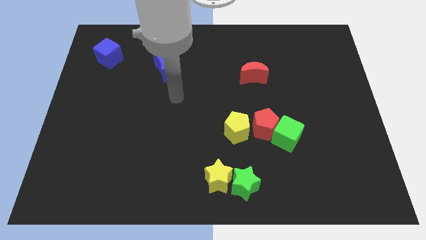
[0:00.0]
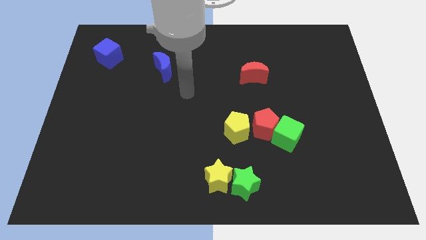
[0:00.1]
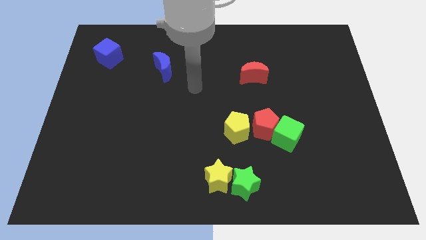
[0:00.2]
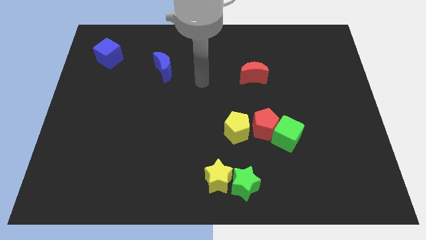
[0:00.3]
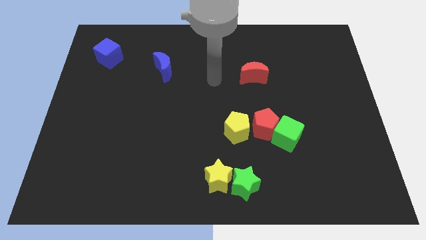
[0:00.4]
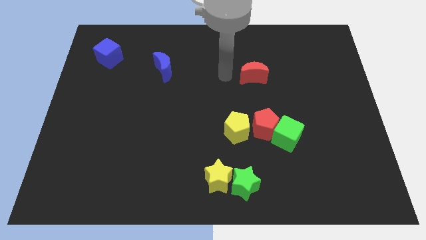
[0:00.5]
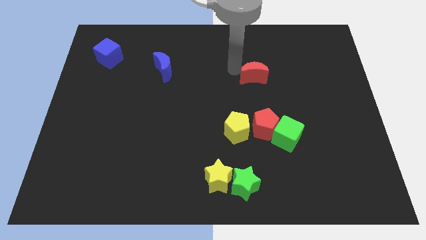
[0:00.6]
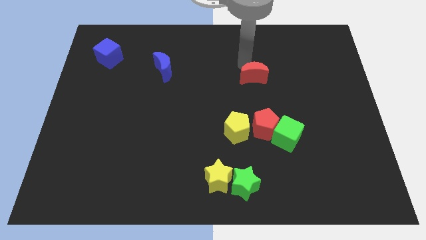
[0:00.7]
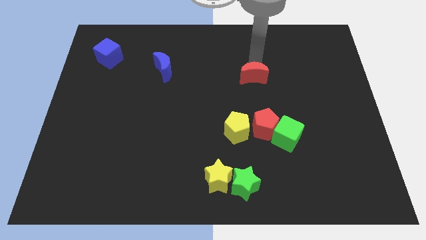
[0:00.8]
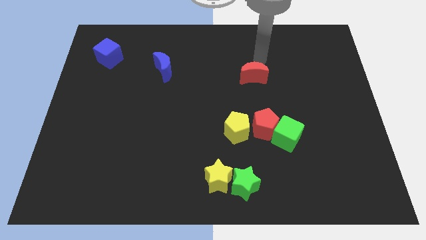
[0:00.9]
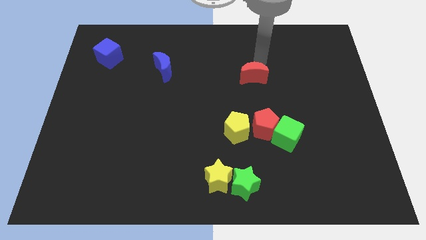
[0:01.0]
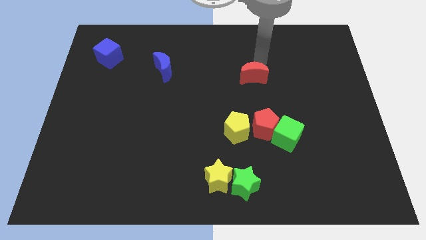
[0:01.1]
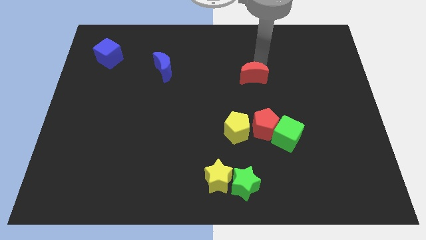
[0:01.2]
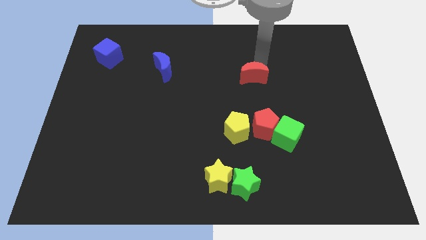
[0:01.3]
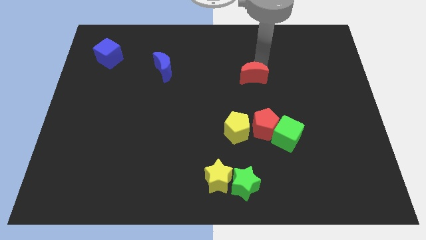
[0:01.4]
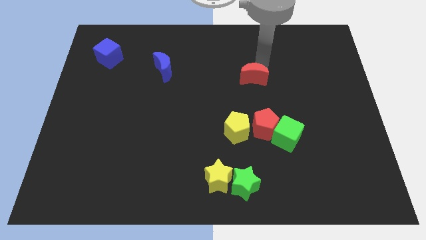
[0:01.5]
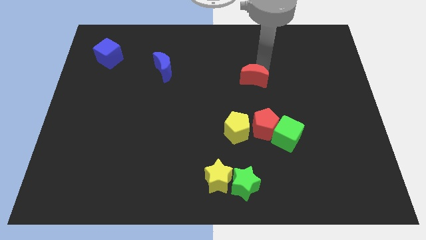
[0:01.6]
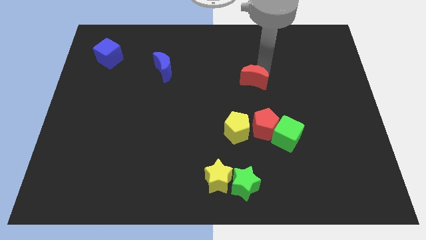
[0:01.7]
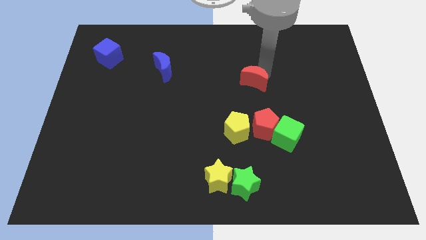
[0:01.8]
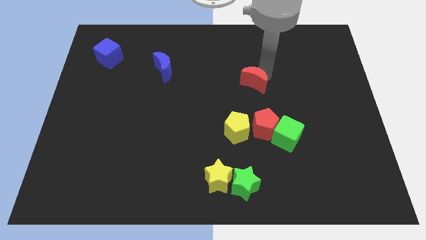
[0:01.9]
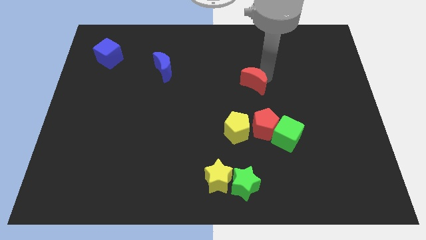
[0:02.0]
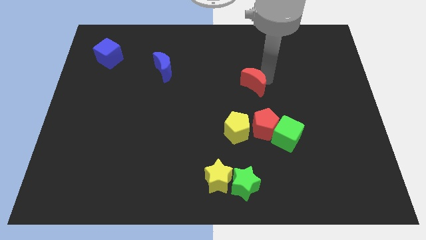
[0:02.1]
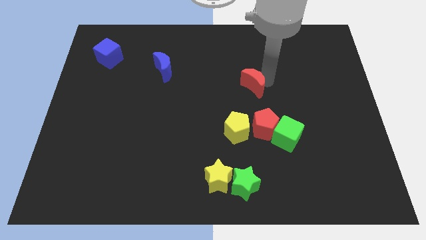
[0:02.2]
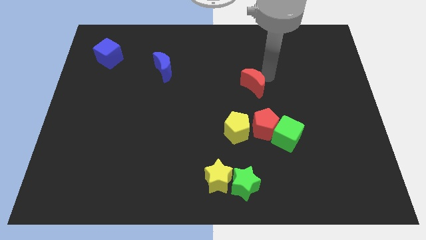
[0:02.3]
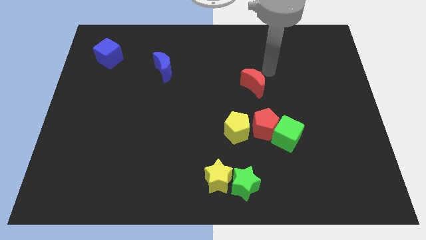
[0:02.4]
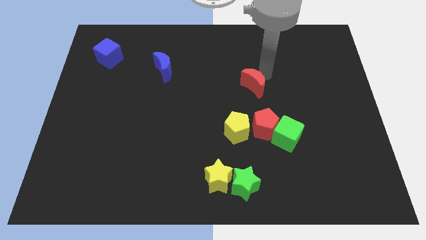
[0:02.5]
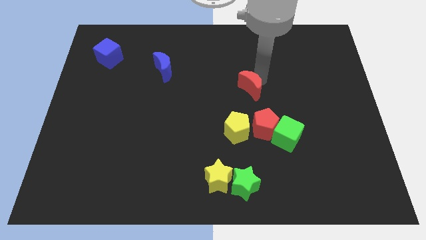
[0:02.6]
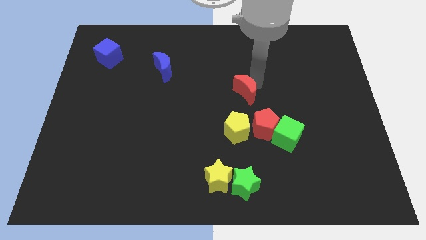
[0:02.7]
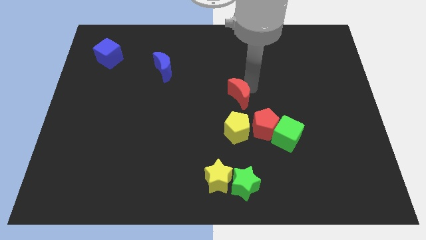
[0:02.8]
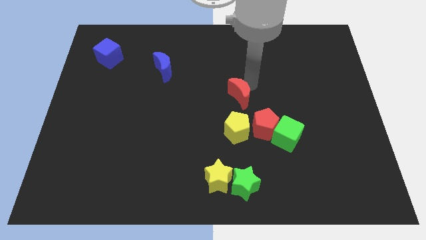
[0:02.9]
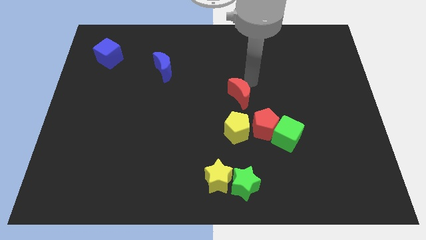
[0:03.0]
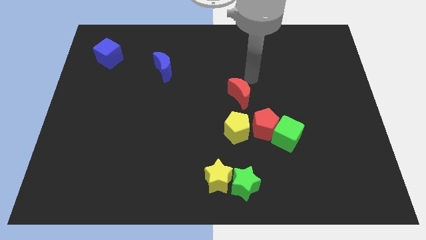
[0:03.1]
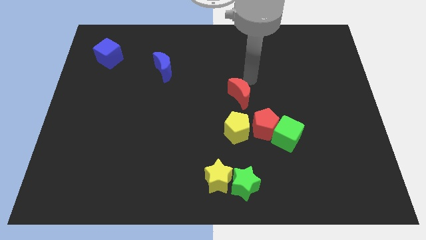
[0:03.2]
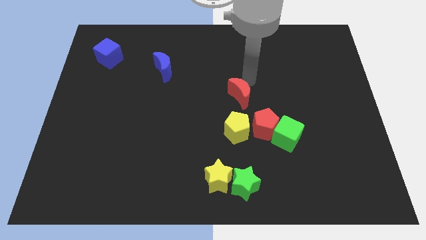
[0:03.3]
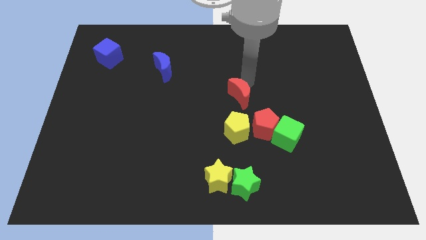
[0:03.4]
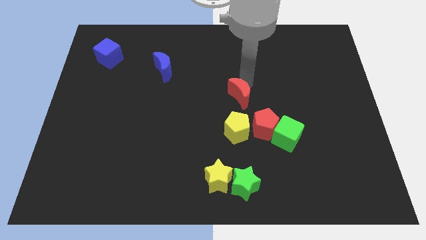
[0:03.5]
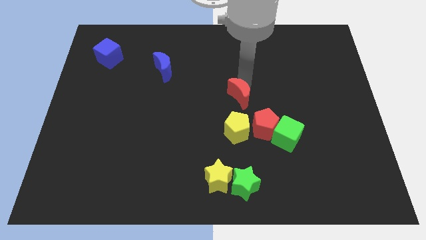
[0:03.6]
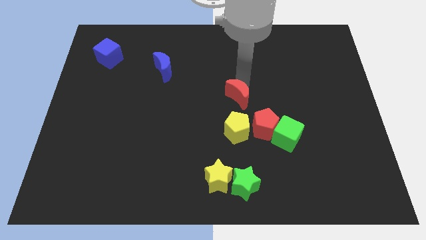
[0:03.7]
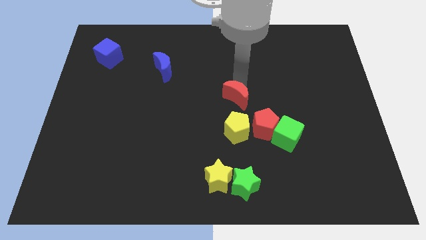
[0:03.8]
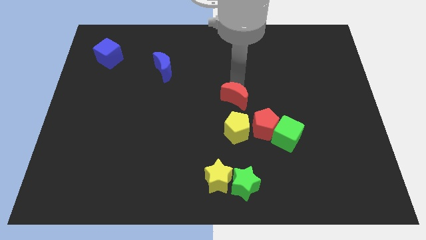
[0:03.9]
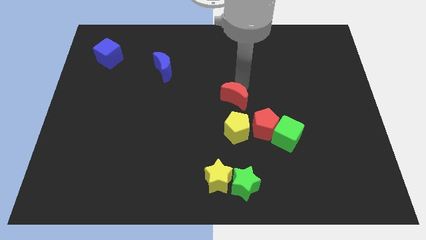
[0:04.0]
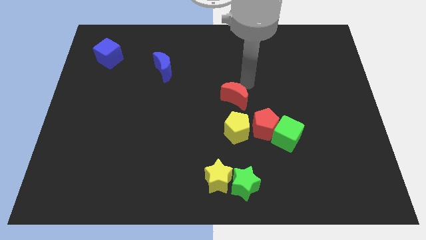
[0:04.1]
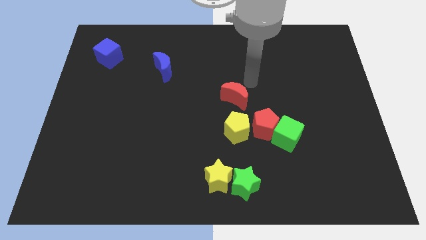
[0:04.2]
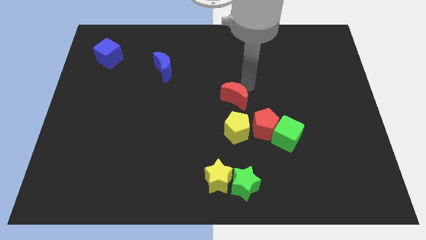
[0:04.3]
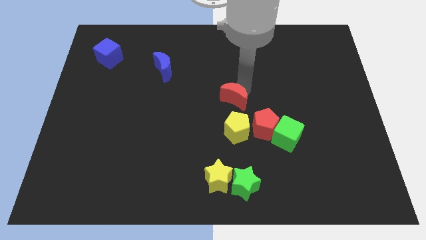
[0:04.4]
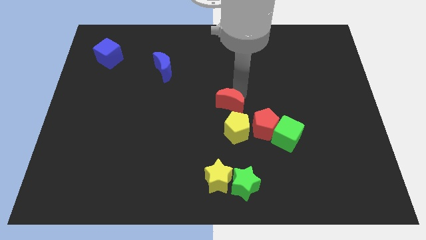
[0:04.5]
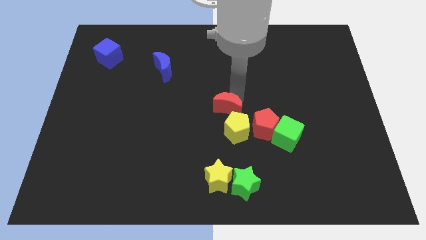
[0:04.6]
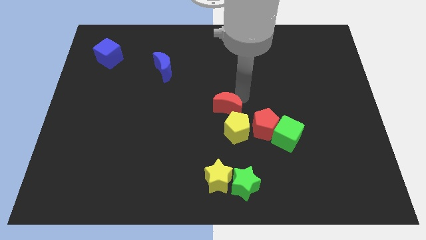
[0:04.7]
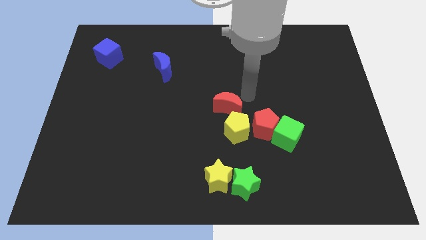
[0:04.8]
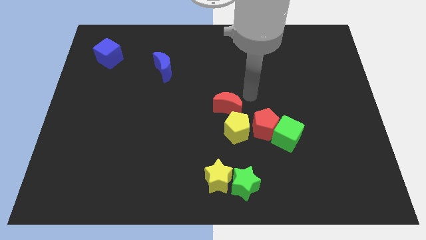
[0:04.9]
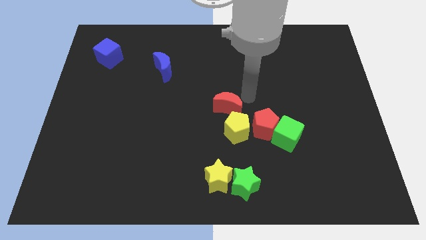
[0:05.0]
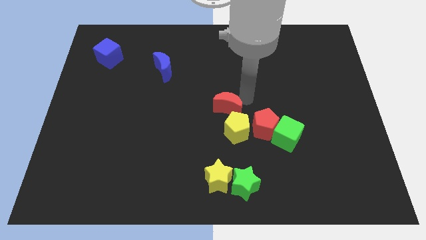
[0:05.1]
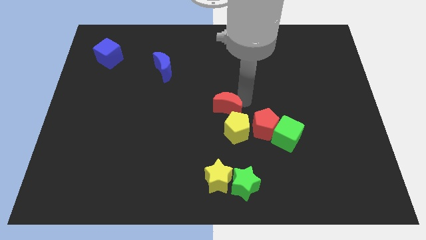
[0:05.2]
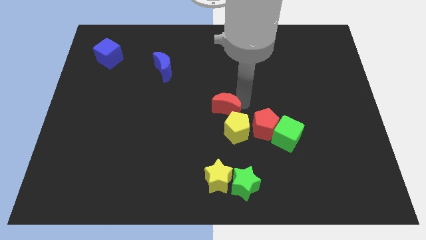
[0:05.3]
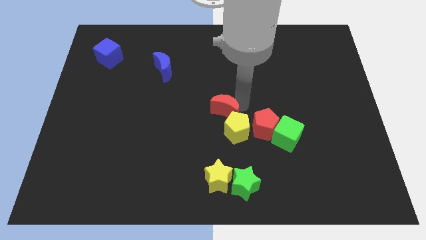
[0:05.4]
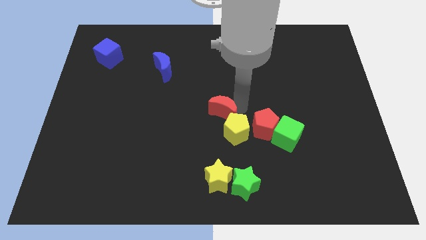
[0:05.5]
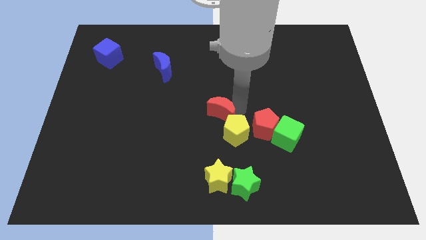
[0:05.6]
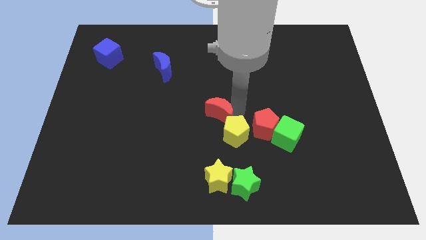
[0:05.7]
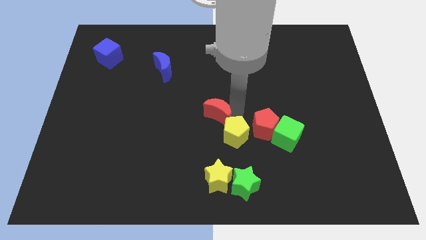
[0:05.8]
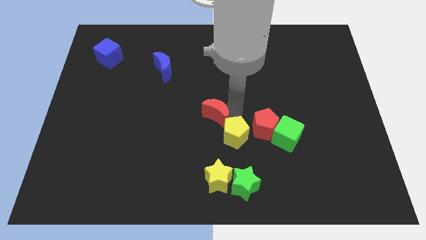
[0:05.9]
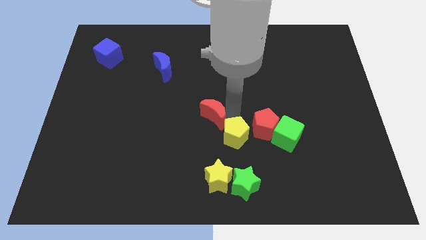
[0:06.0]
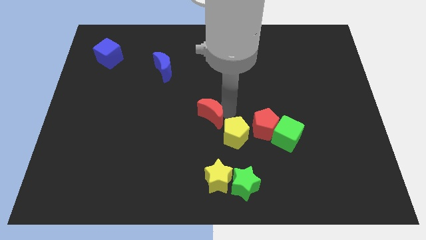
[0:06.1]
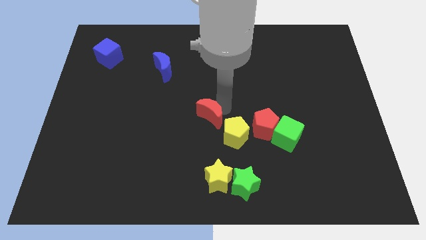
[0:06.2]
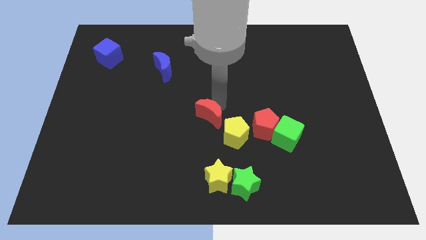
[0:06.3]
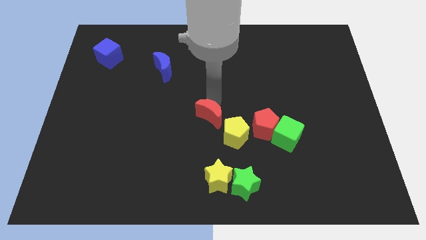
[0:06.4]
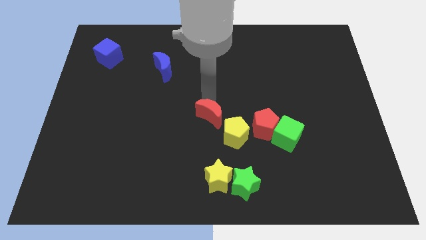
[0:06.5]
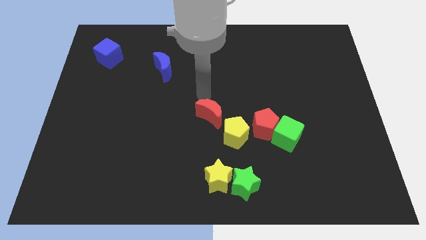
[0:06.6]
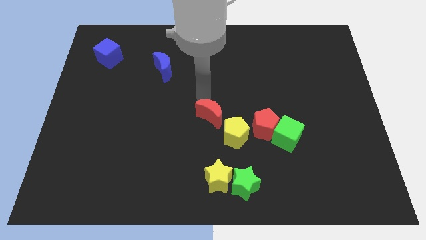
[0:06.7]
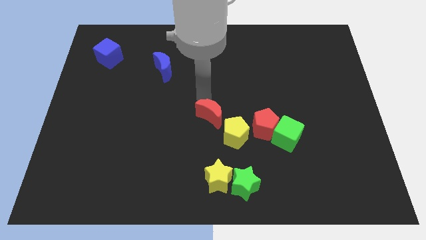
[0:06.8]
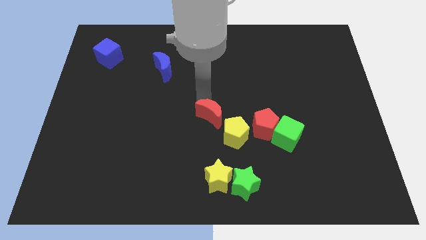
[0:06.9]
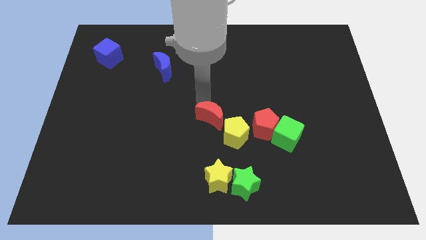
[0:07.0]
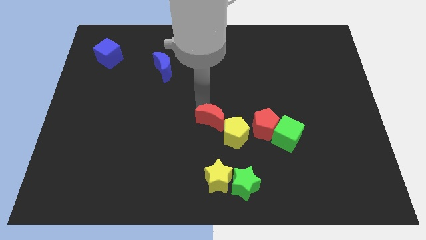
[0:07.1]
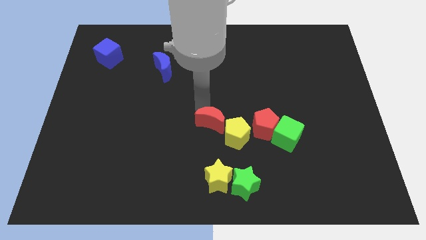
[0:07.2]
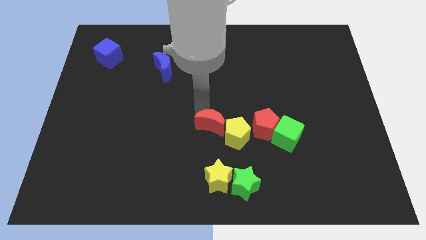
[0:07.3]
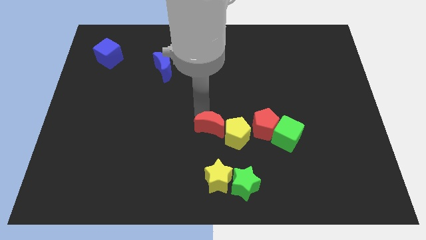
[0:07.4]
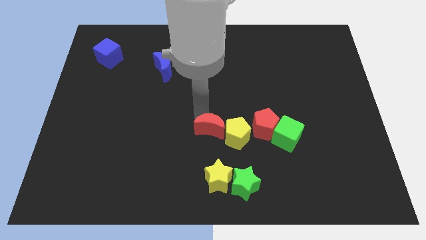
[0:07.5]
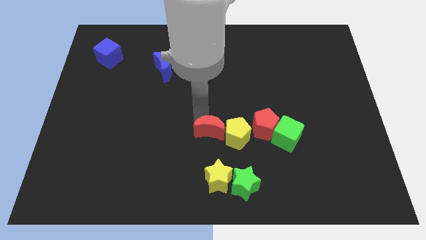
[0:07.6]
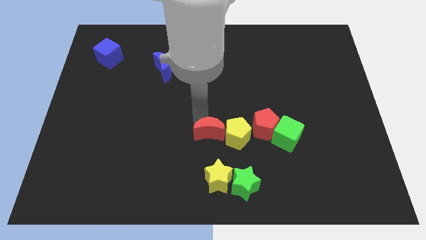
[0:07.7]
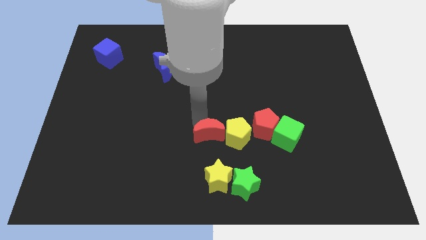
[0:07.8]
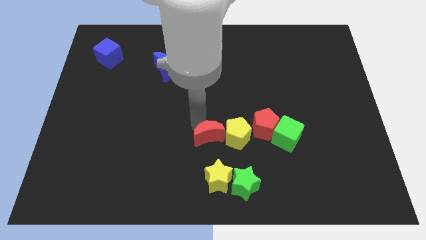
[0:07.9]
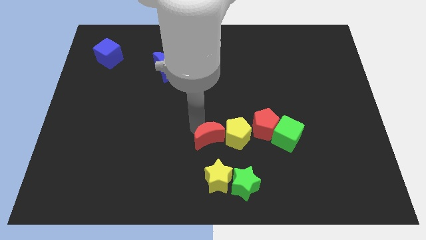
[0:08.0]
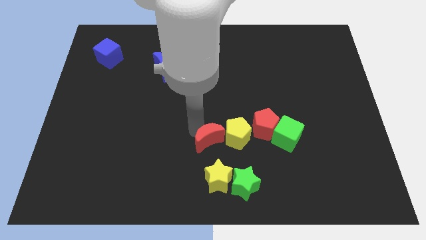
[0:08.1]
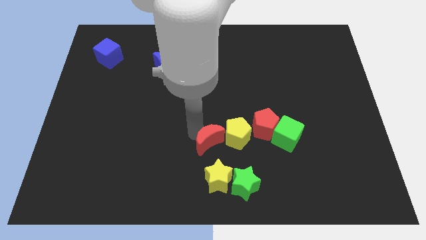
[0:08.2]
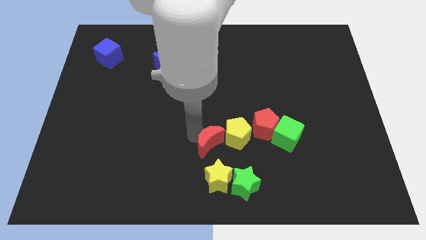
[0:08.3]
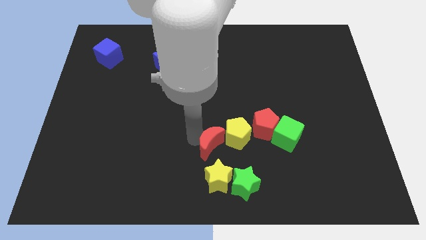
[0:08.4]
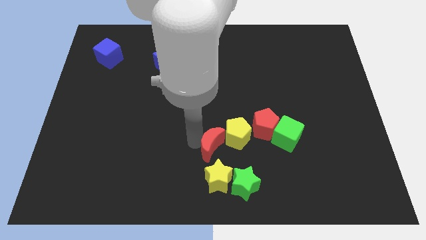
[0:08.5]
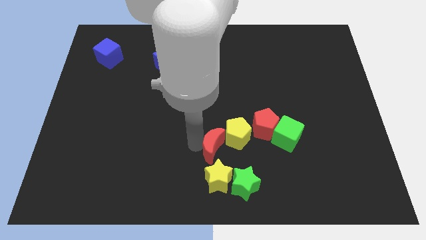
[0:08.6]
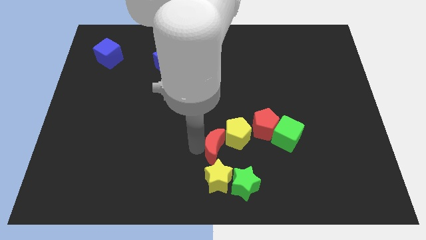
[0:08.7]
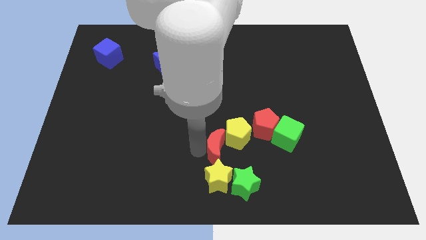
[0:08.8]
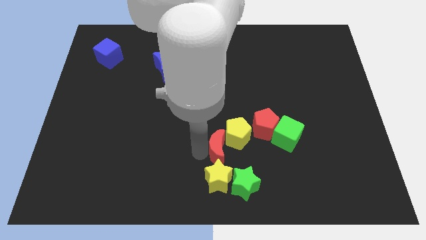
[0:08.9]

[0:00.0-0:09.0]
put the red moon to the bottom left side of the red pentagon
